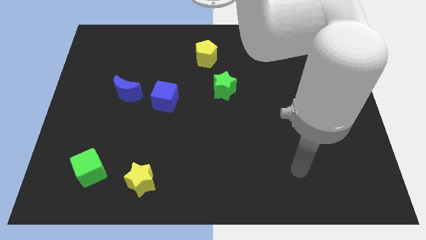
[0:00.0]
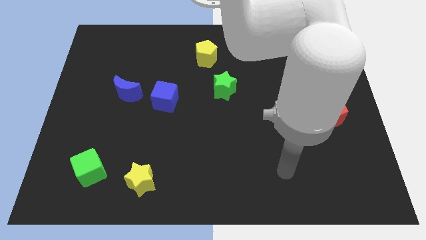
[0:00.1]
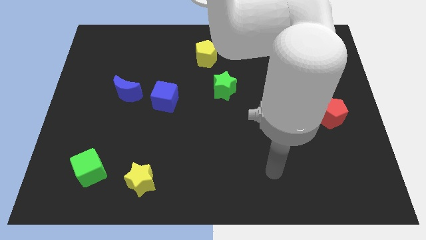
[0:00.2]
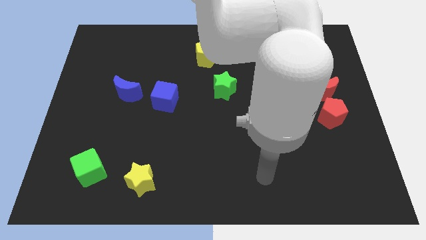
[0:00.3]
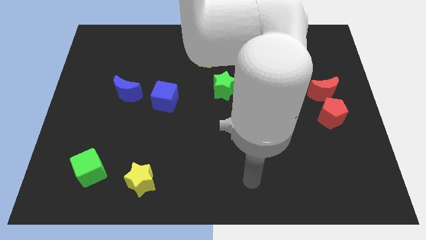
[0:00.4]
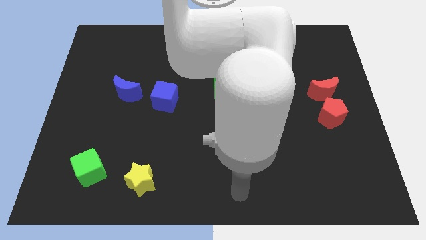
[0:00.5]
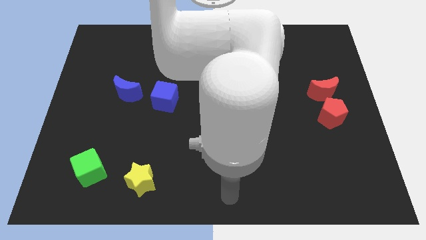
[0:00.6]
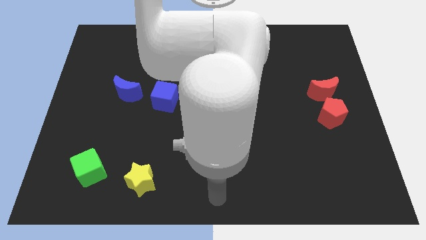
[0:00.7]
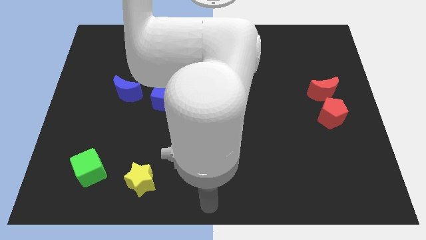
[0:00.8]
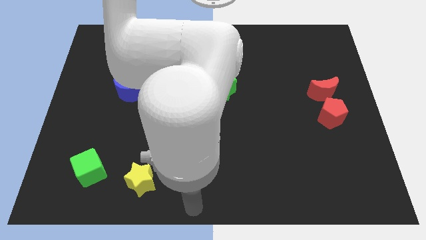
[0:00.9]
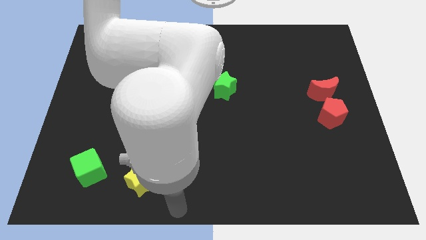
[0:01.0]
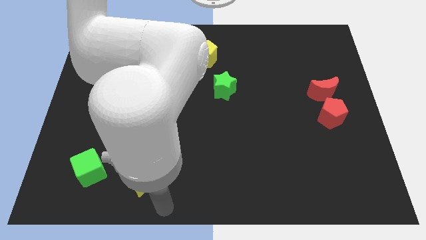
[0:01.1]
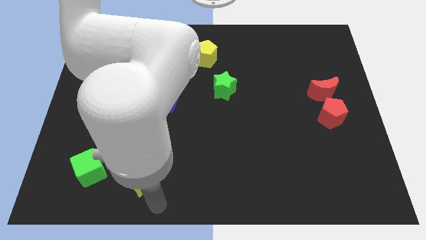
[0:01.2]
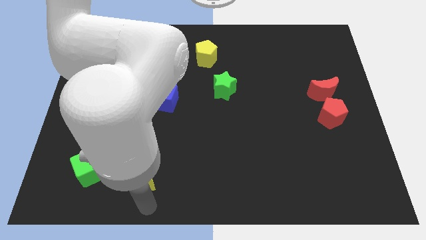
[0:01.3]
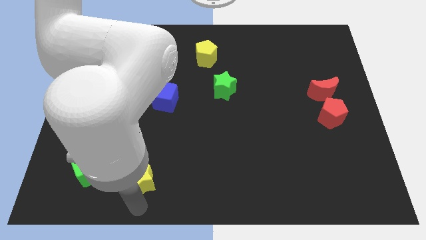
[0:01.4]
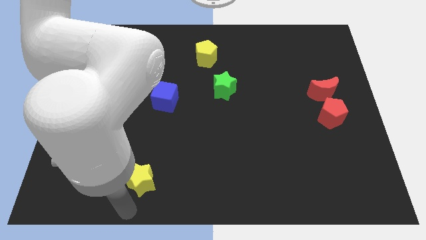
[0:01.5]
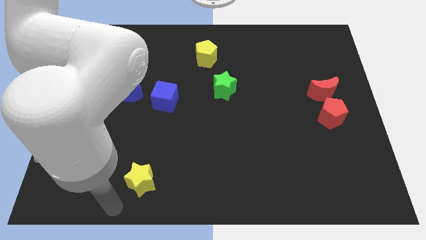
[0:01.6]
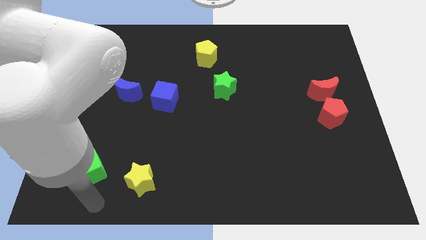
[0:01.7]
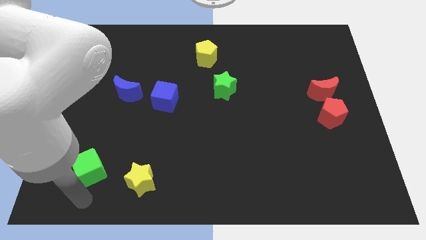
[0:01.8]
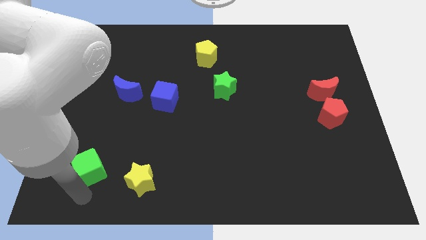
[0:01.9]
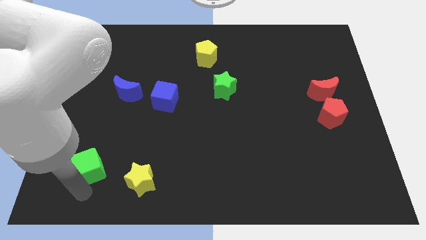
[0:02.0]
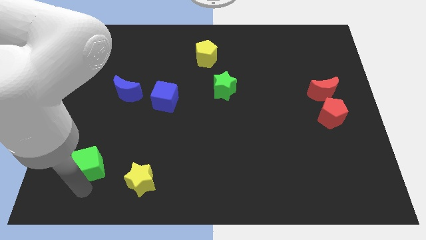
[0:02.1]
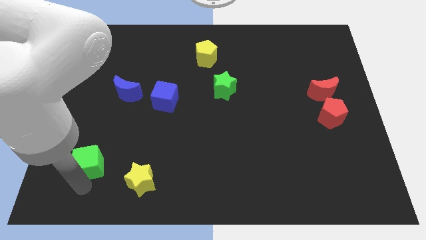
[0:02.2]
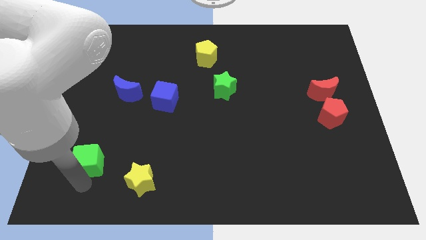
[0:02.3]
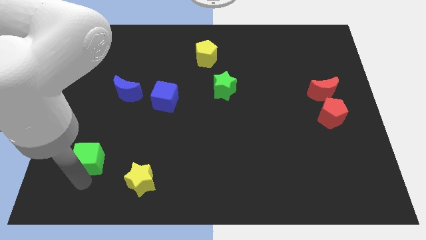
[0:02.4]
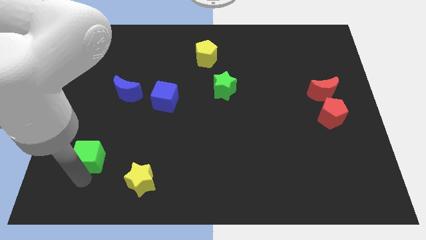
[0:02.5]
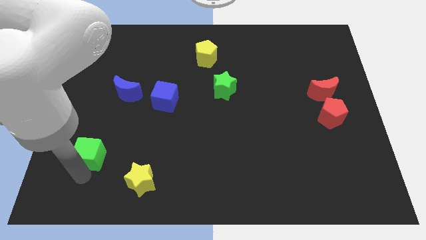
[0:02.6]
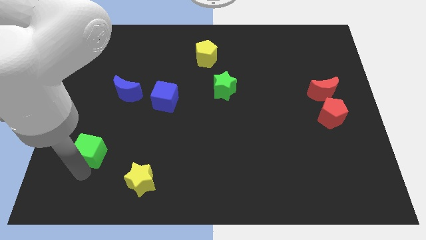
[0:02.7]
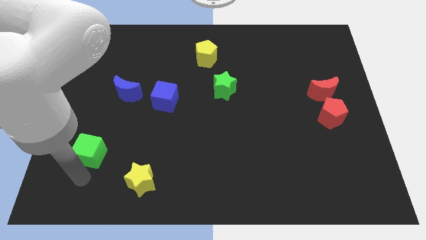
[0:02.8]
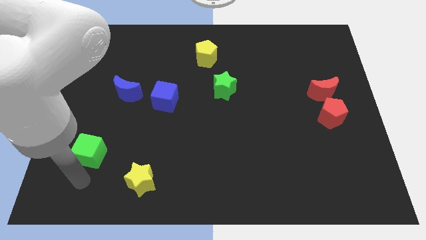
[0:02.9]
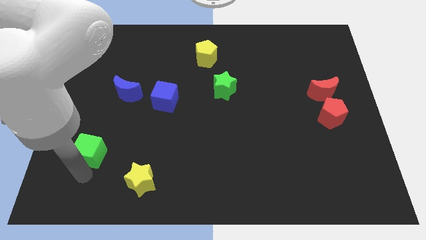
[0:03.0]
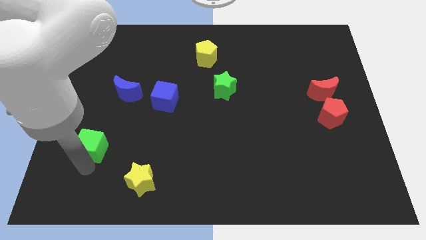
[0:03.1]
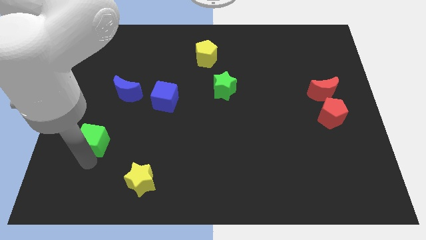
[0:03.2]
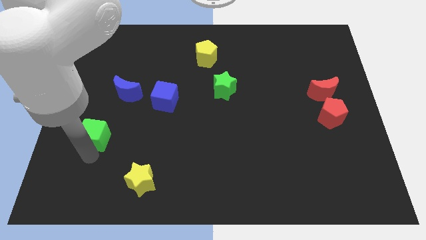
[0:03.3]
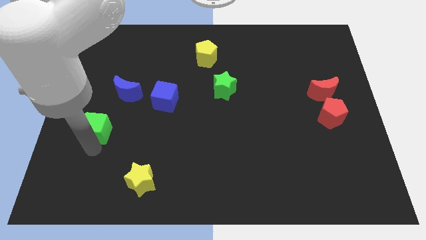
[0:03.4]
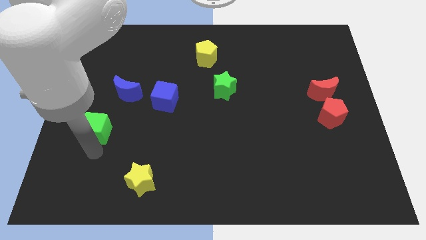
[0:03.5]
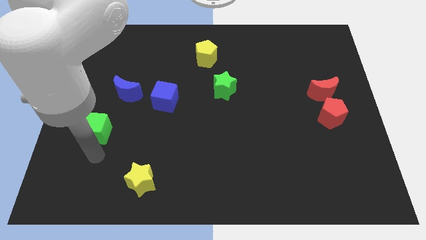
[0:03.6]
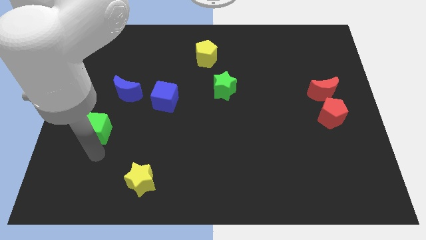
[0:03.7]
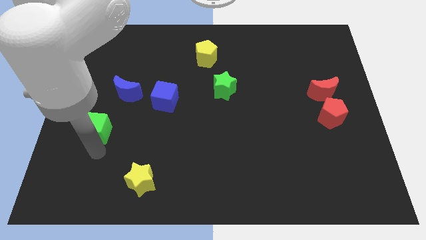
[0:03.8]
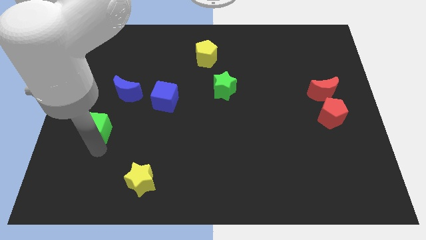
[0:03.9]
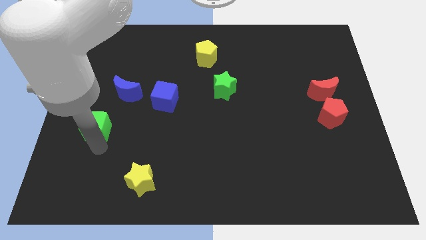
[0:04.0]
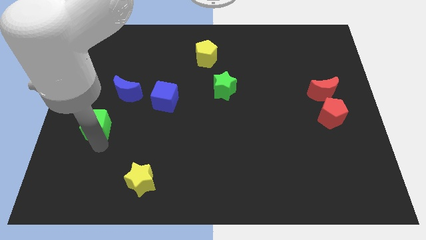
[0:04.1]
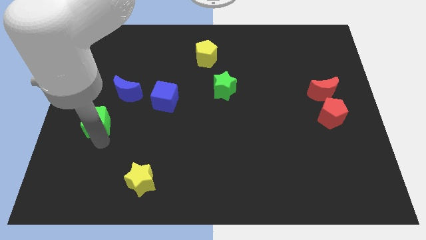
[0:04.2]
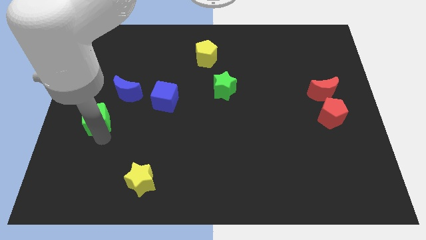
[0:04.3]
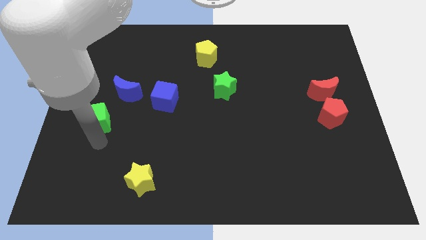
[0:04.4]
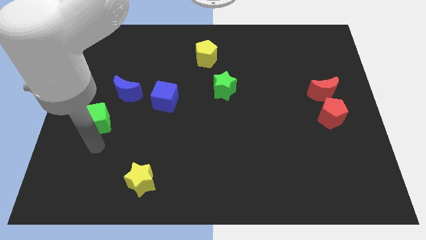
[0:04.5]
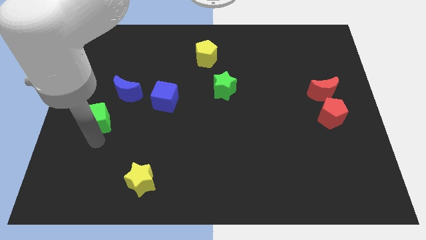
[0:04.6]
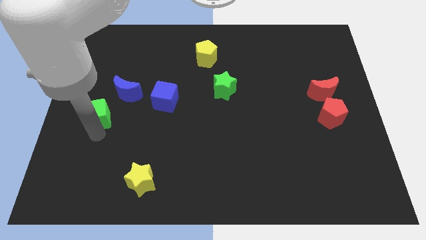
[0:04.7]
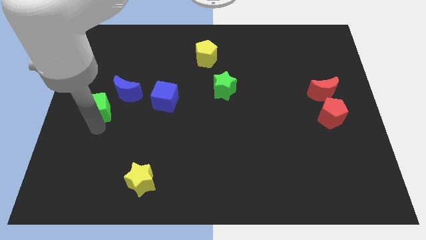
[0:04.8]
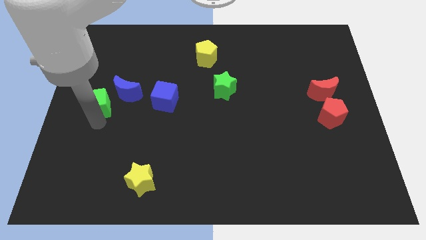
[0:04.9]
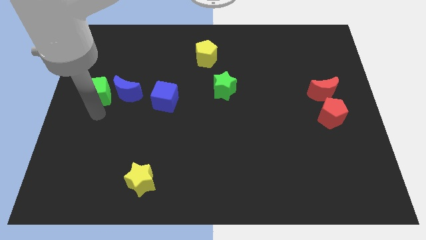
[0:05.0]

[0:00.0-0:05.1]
move the green cube upwards

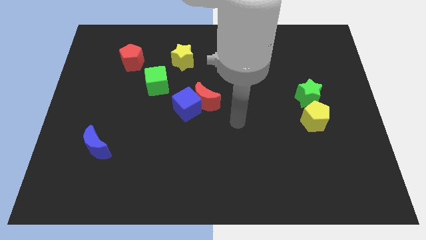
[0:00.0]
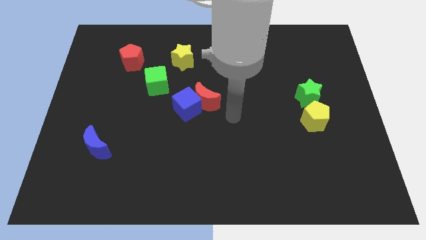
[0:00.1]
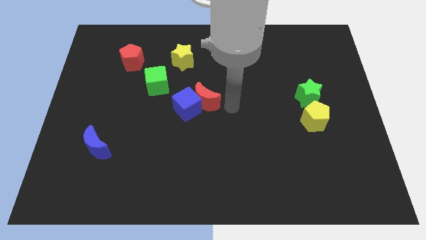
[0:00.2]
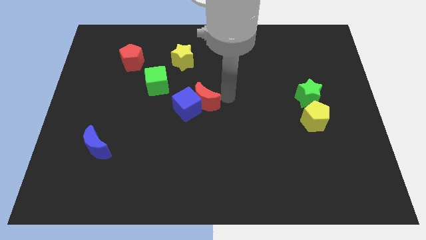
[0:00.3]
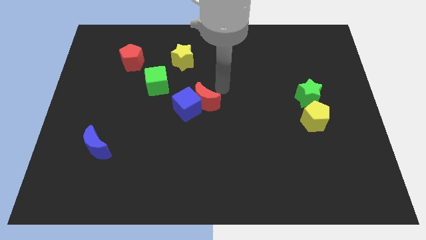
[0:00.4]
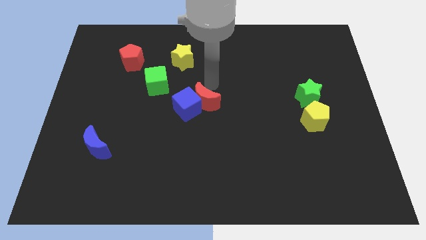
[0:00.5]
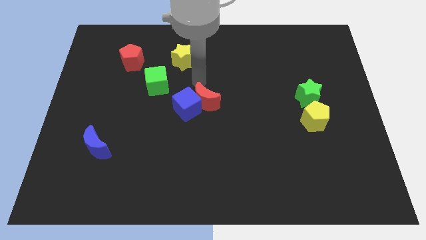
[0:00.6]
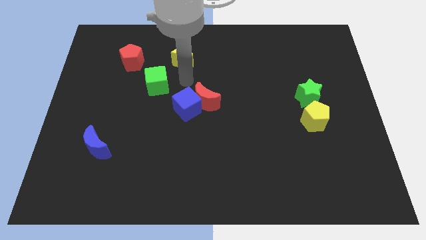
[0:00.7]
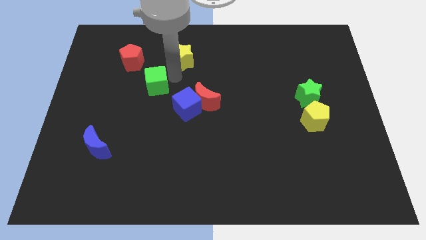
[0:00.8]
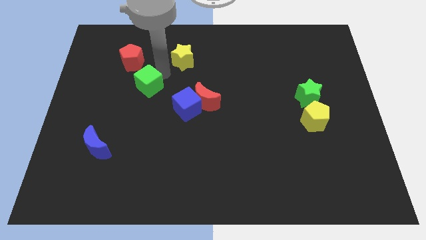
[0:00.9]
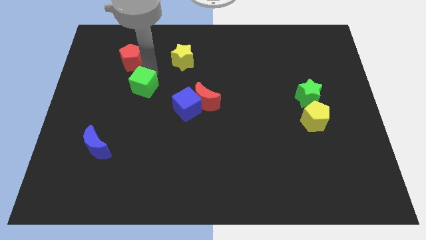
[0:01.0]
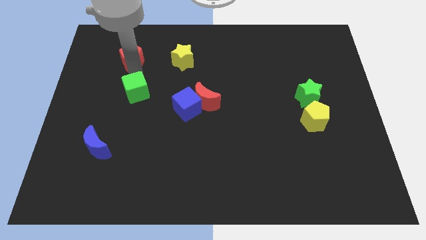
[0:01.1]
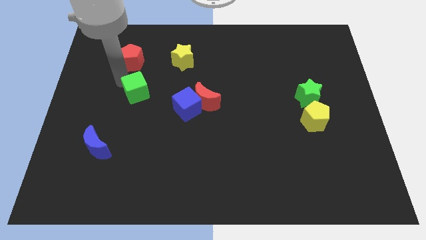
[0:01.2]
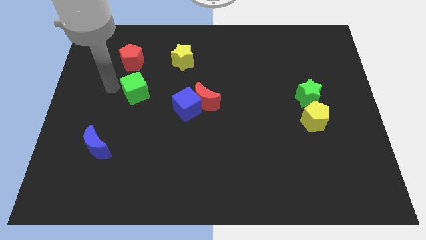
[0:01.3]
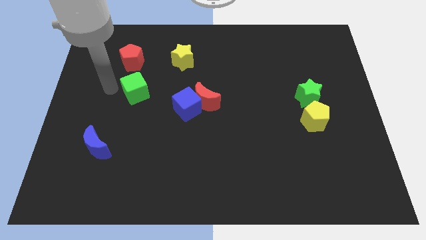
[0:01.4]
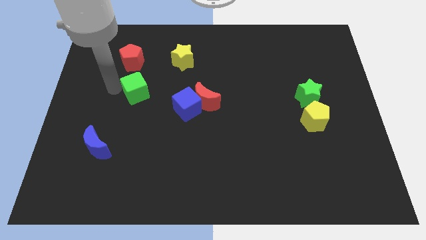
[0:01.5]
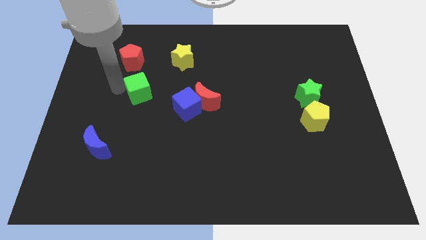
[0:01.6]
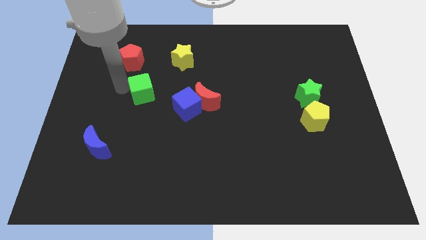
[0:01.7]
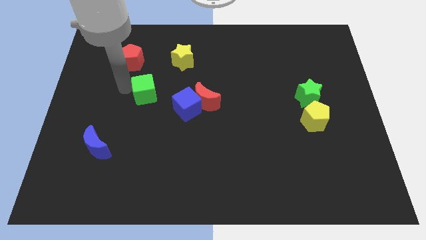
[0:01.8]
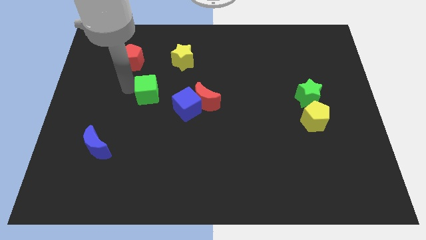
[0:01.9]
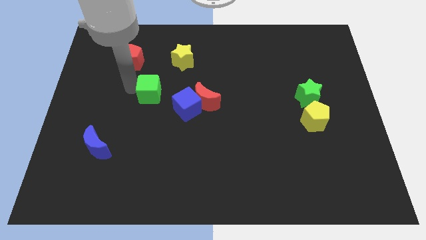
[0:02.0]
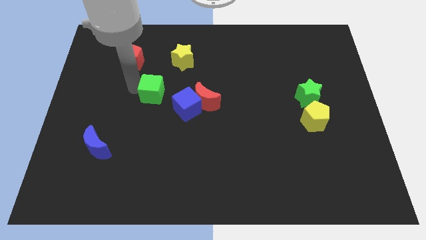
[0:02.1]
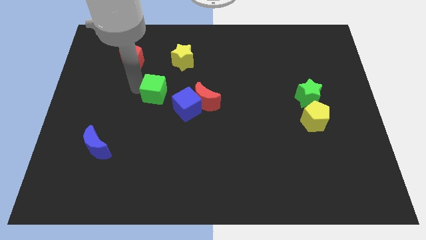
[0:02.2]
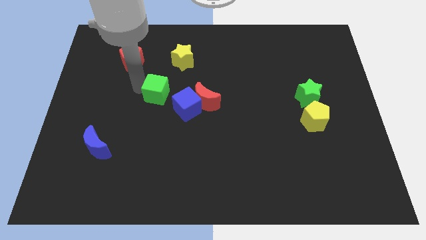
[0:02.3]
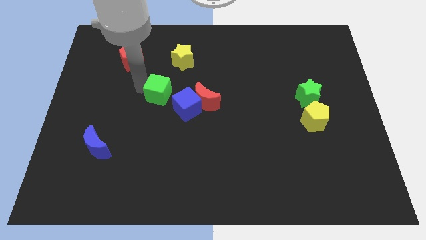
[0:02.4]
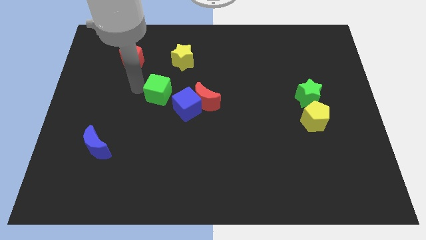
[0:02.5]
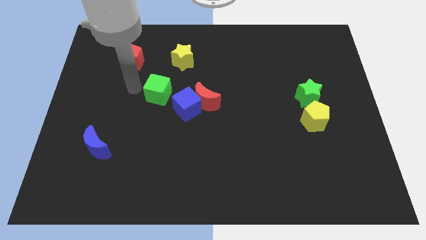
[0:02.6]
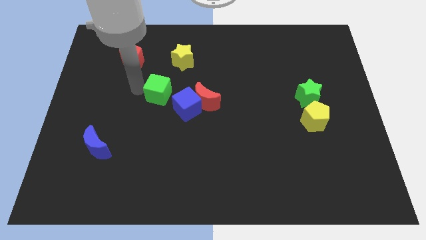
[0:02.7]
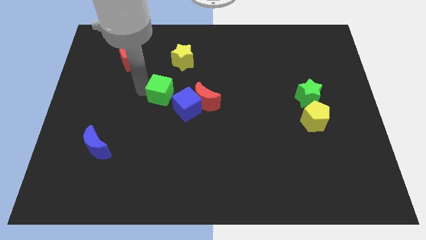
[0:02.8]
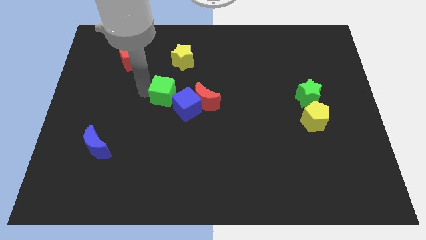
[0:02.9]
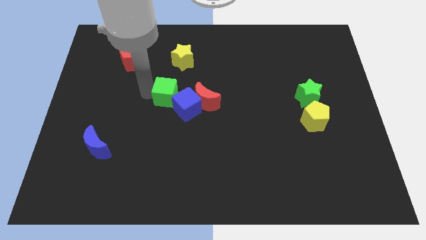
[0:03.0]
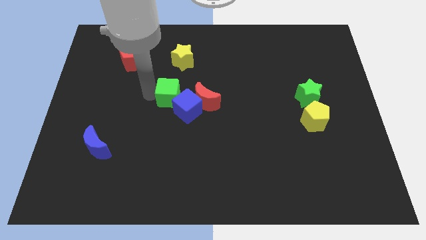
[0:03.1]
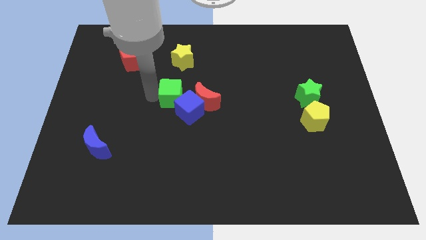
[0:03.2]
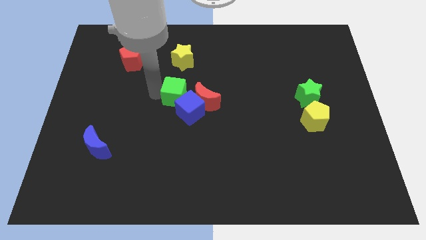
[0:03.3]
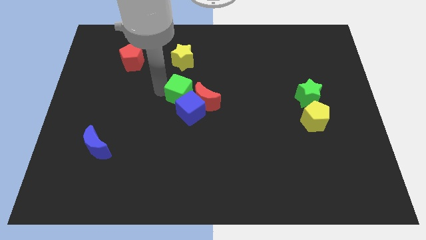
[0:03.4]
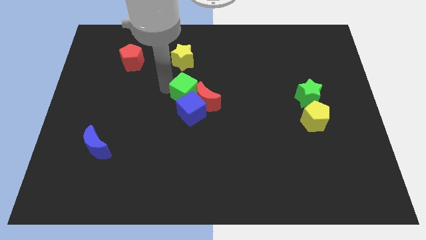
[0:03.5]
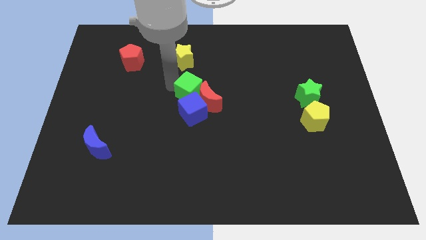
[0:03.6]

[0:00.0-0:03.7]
push the green cube downwards and right a bit
